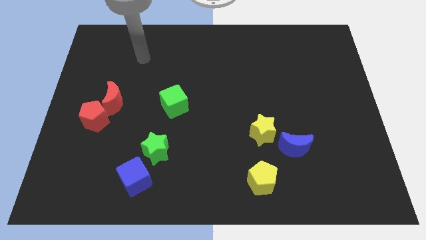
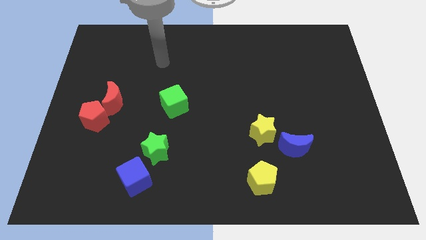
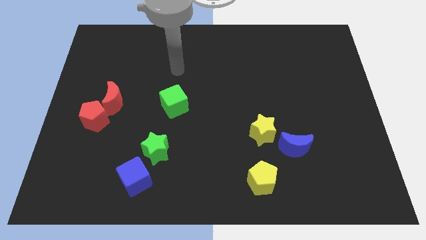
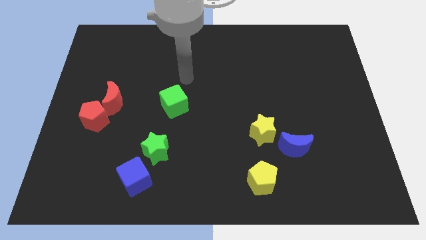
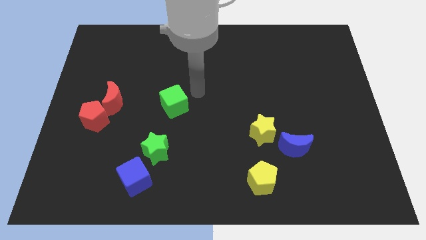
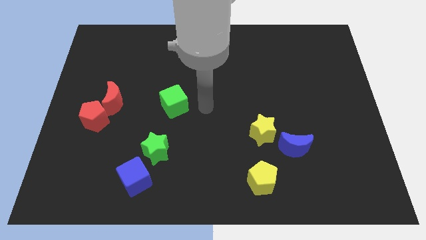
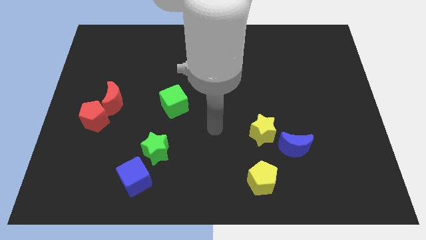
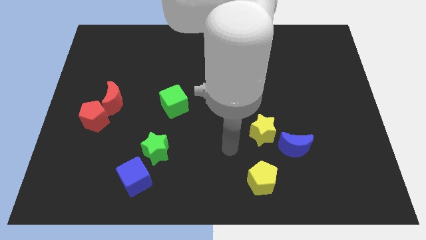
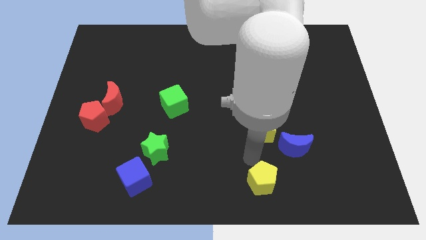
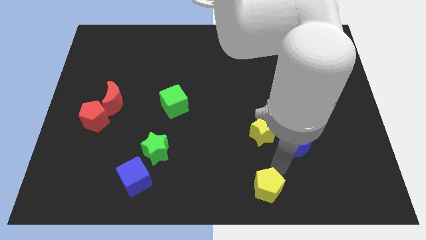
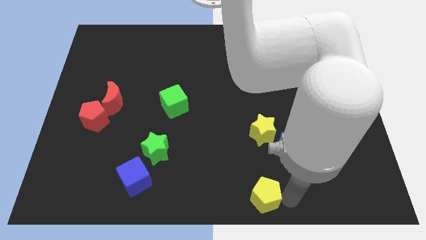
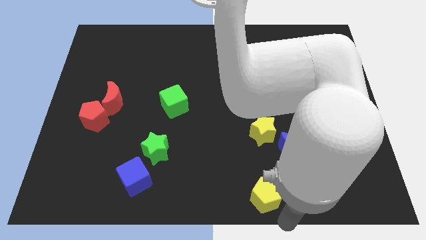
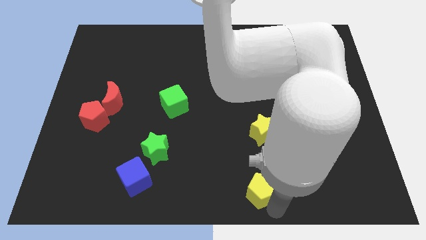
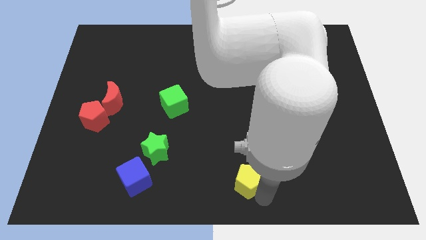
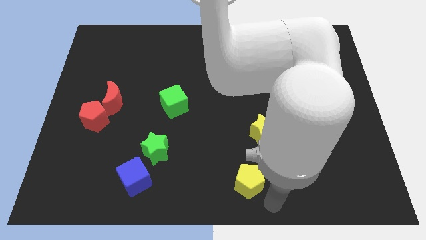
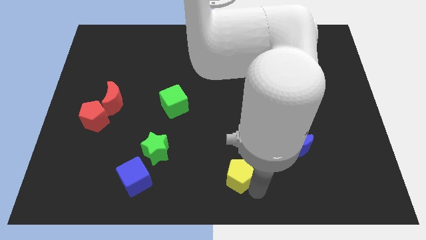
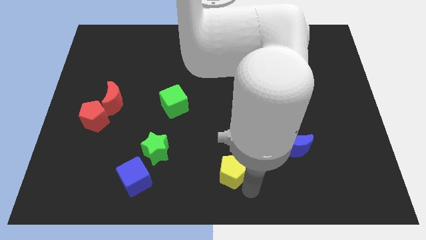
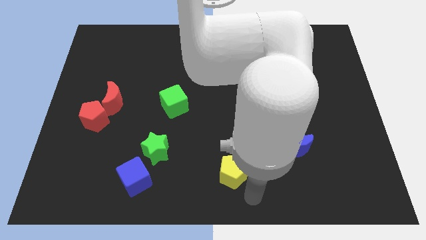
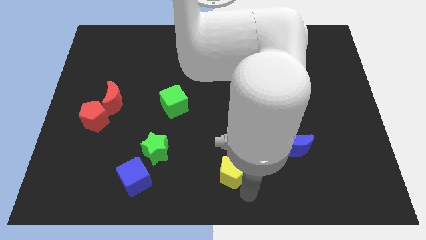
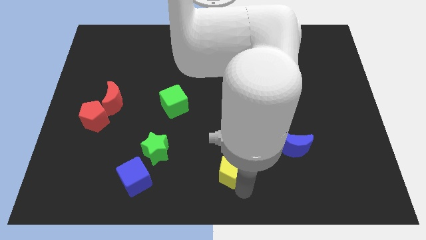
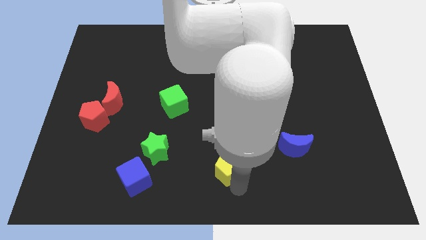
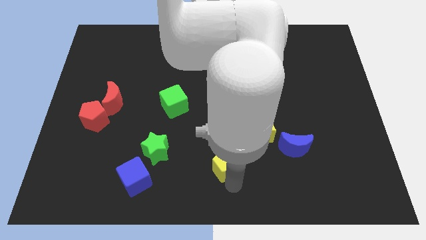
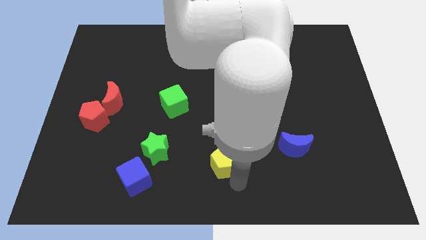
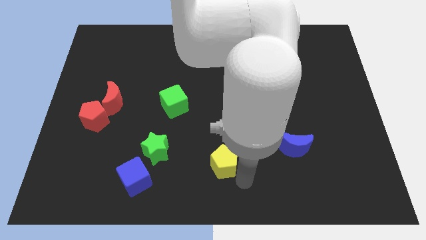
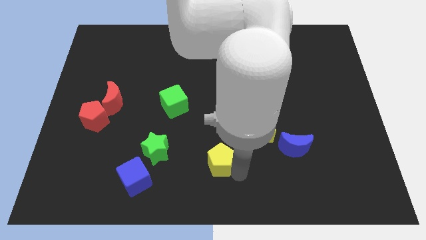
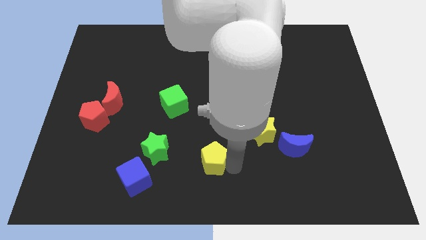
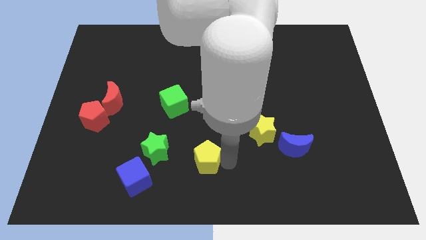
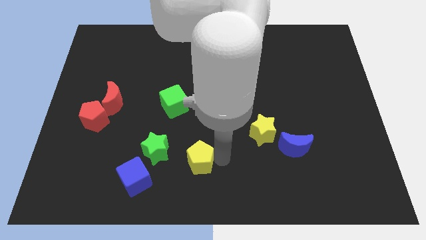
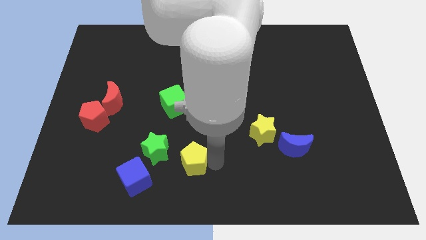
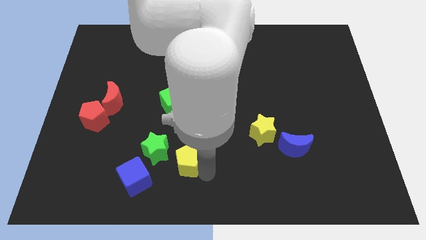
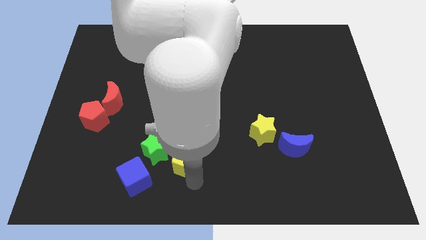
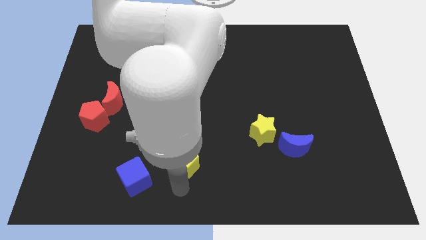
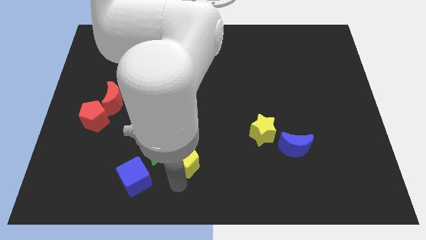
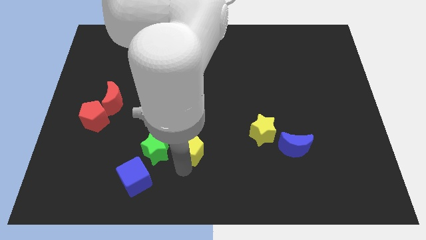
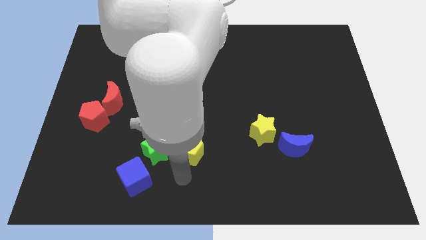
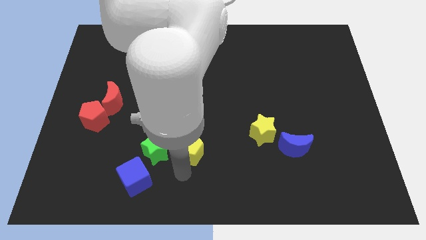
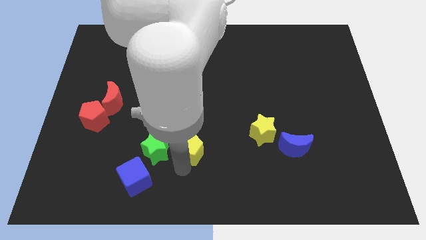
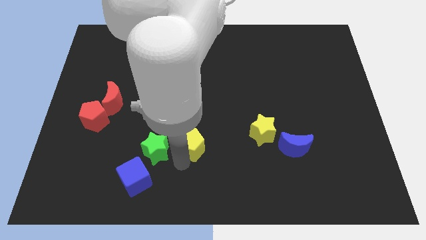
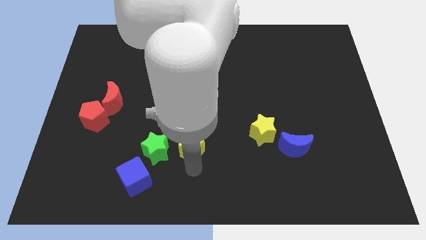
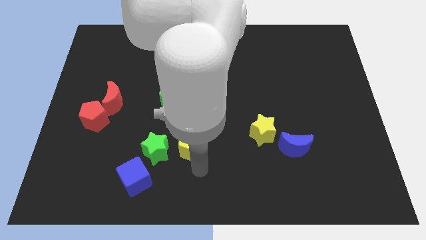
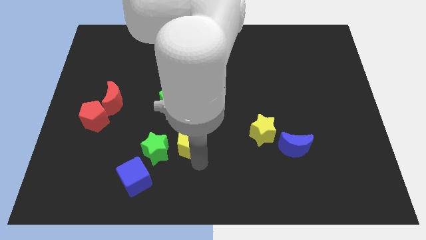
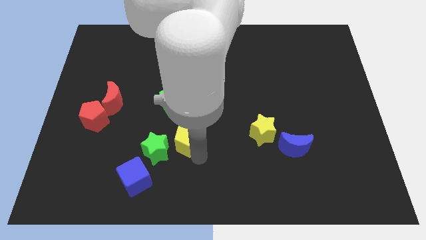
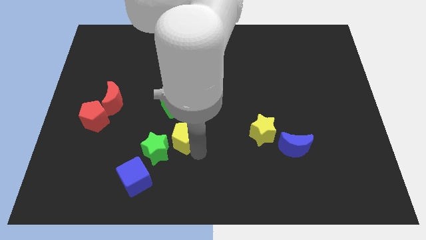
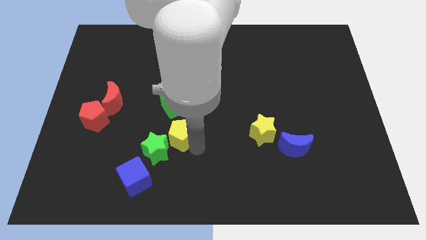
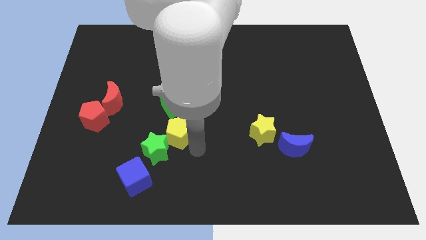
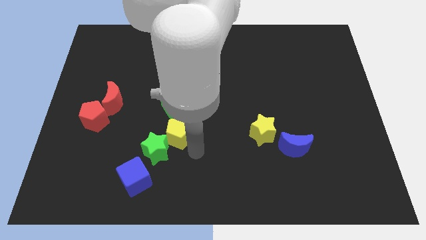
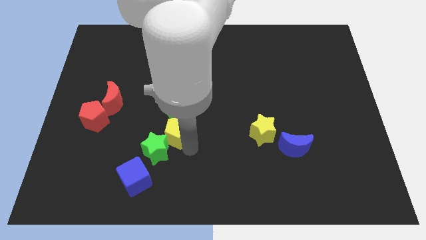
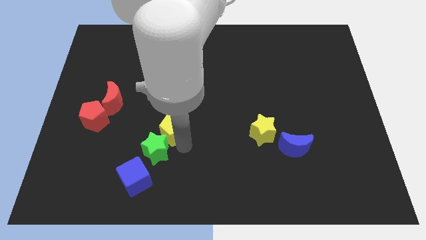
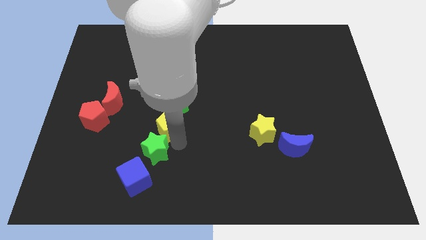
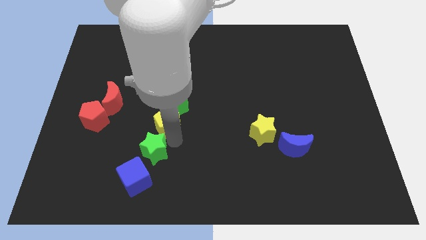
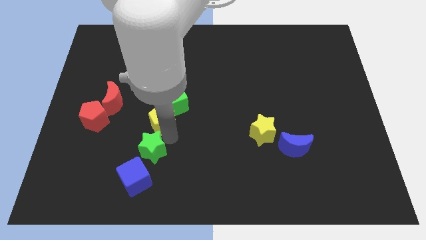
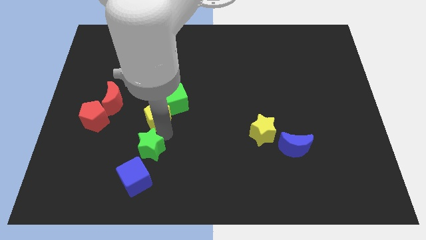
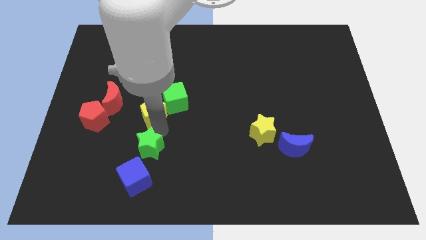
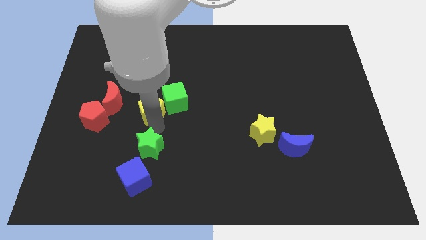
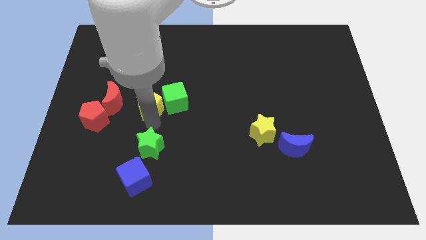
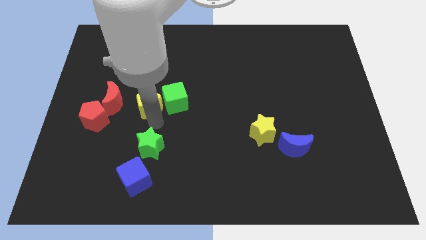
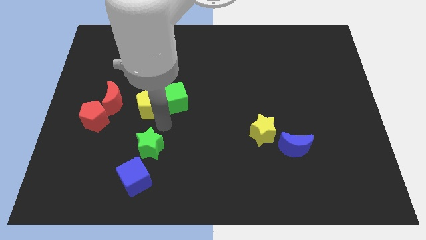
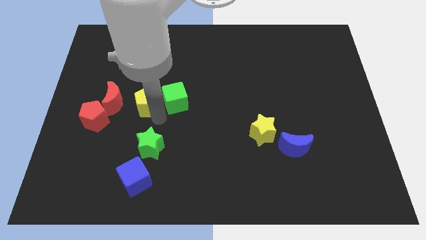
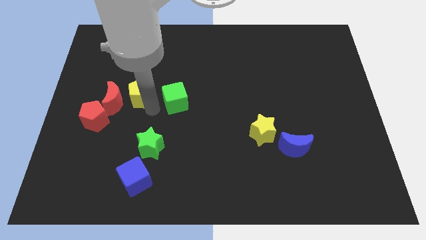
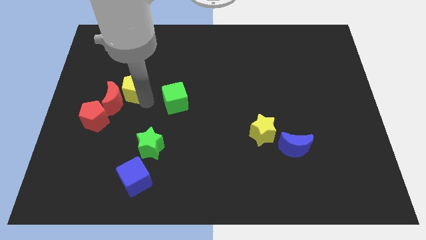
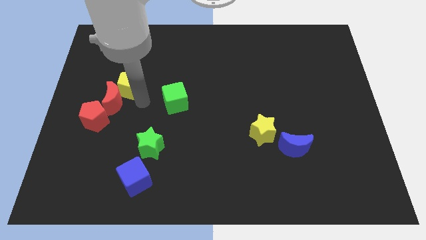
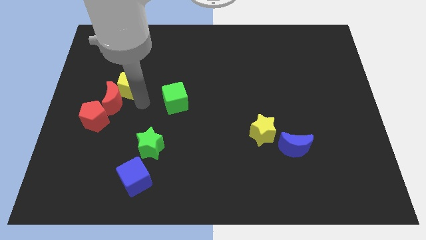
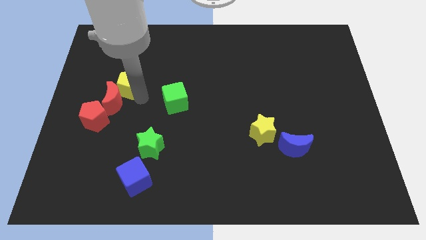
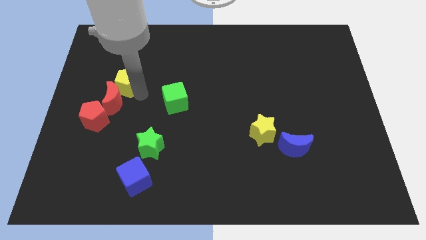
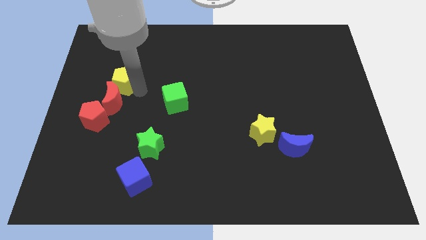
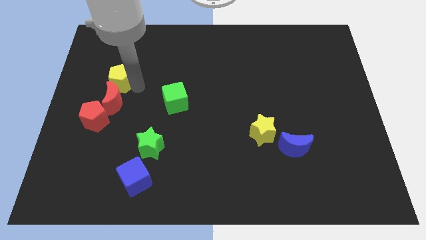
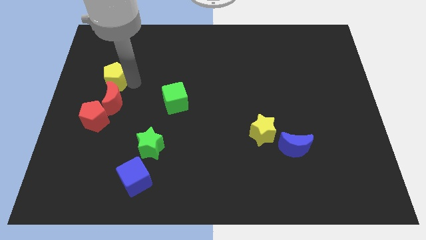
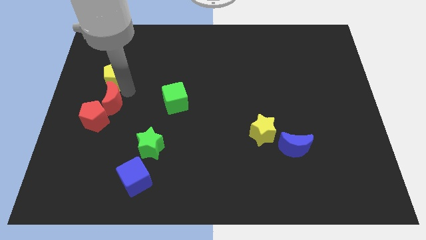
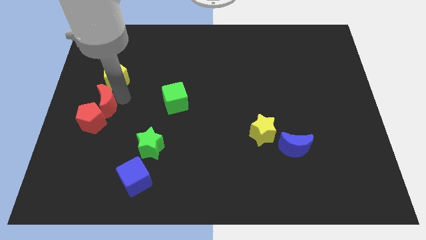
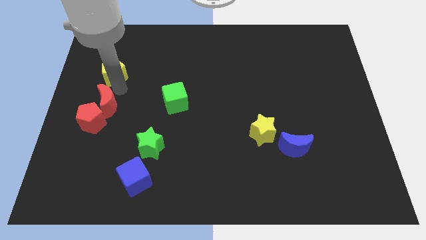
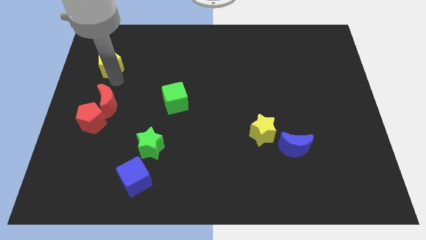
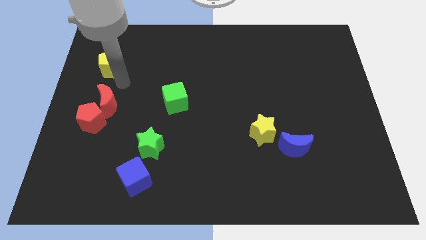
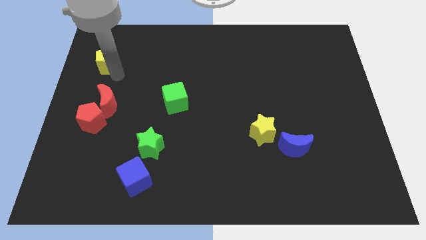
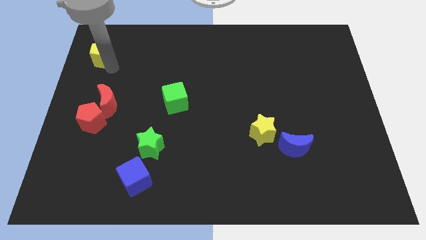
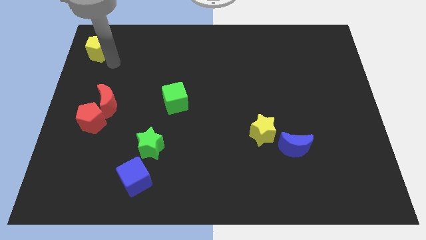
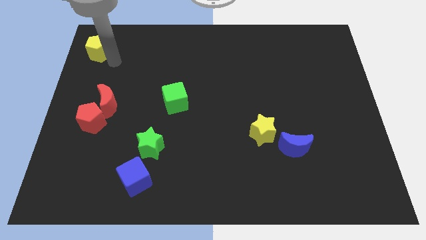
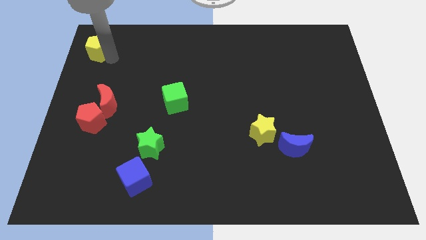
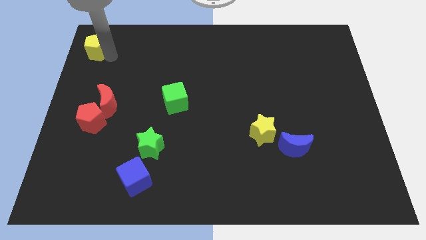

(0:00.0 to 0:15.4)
put the yellow pentagon to the top left of the board
